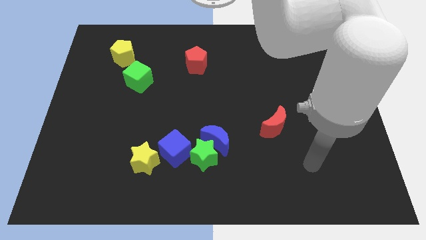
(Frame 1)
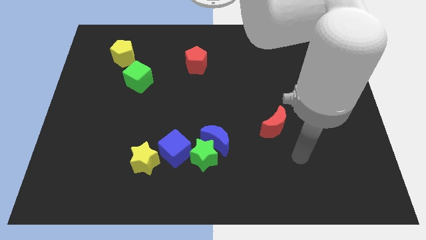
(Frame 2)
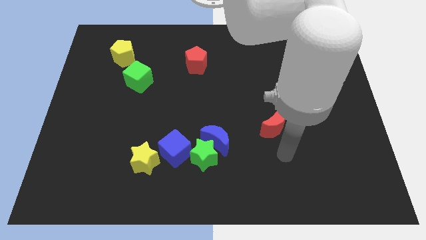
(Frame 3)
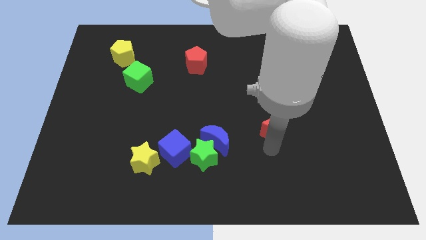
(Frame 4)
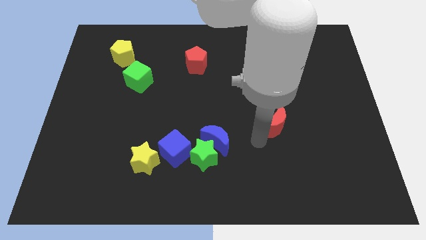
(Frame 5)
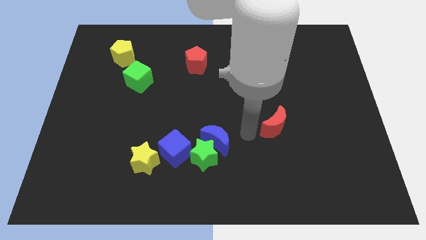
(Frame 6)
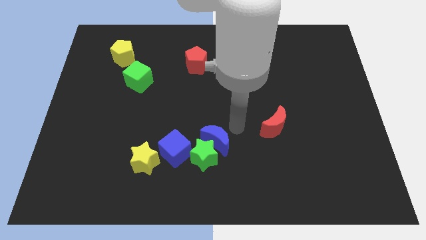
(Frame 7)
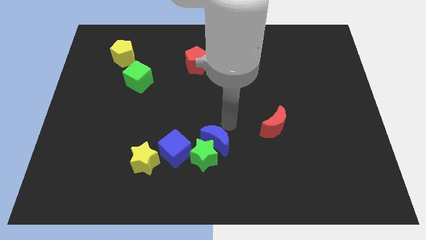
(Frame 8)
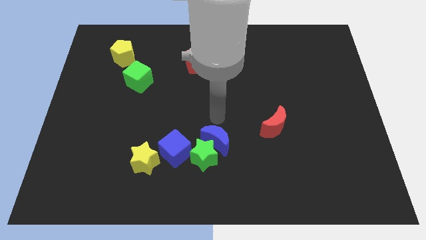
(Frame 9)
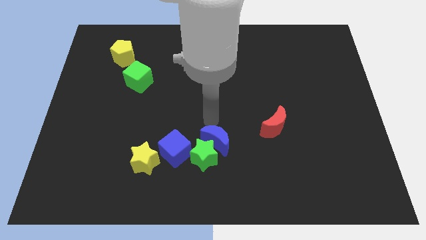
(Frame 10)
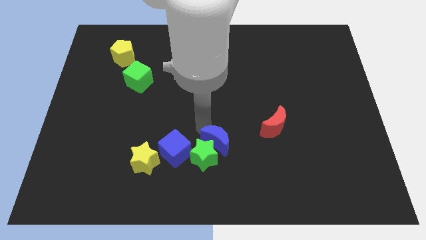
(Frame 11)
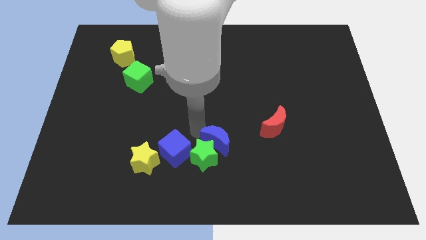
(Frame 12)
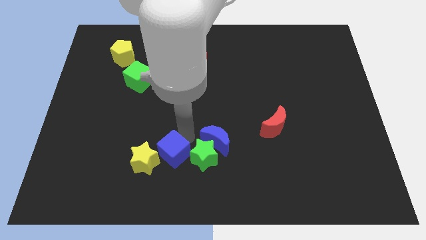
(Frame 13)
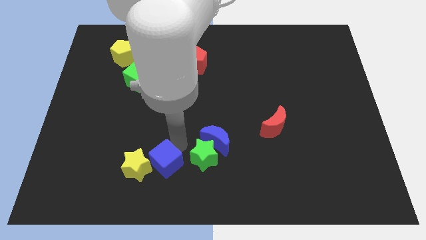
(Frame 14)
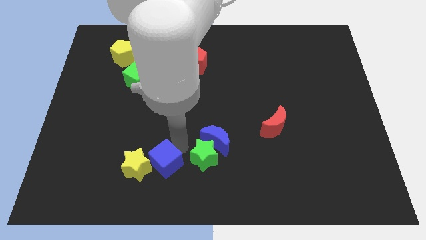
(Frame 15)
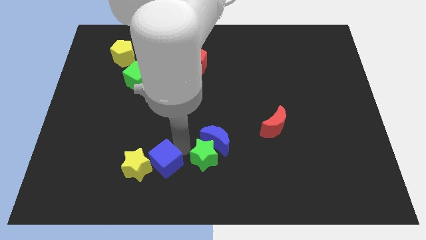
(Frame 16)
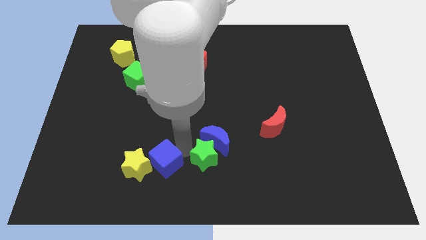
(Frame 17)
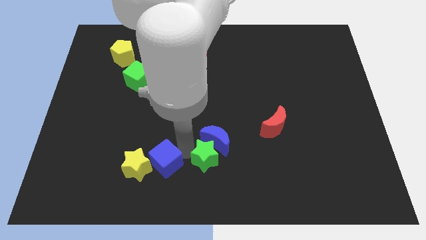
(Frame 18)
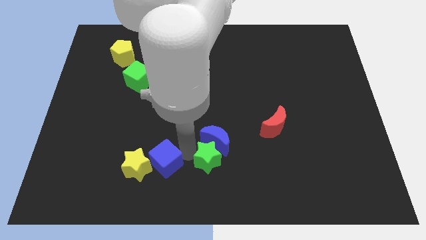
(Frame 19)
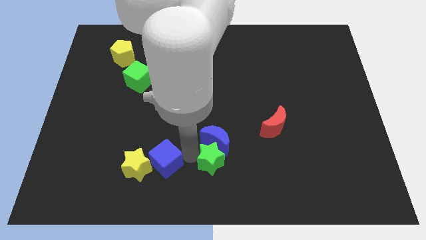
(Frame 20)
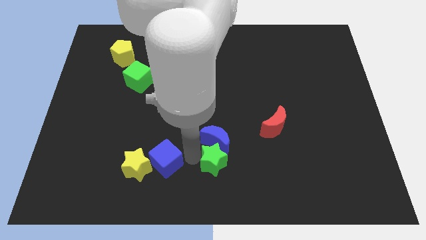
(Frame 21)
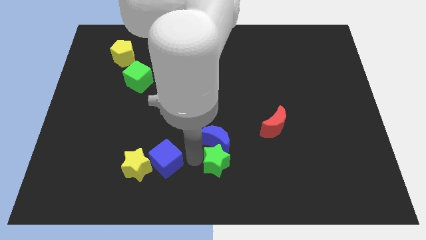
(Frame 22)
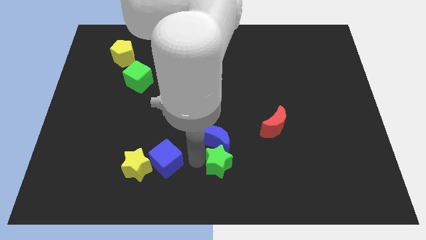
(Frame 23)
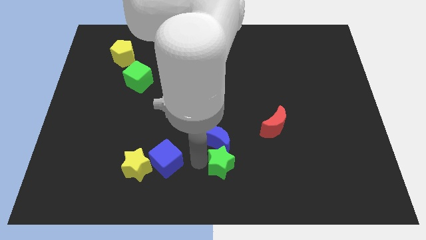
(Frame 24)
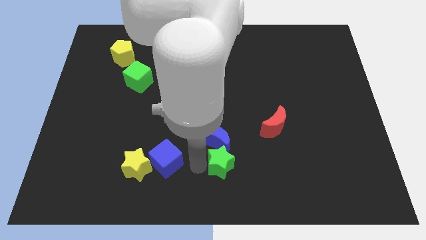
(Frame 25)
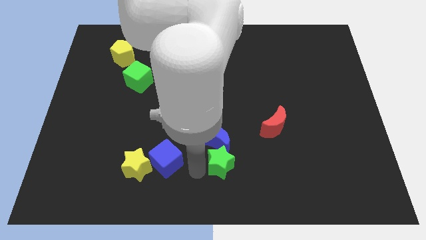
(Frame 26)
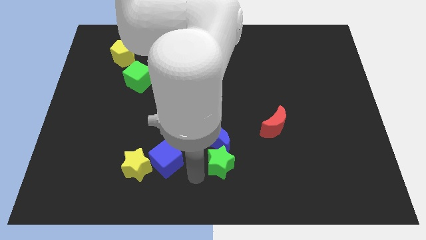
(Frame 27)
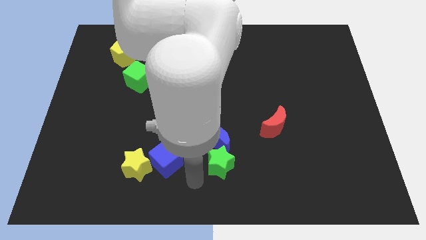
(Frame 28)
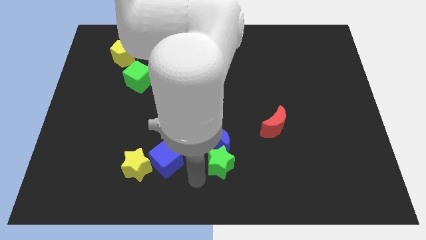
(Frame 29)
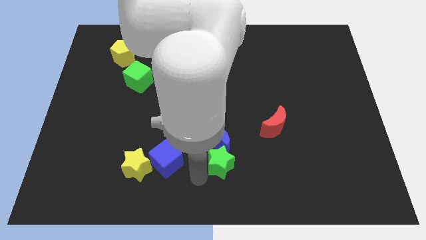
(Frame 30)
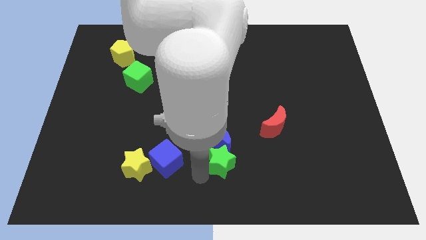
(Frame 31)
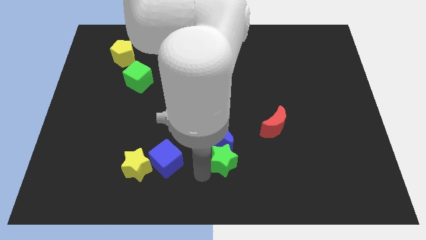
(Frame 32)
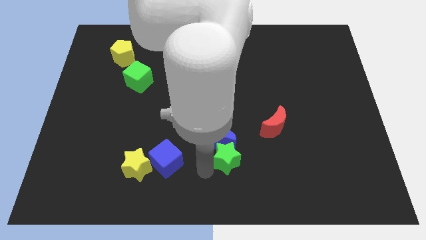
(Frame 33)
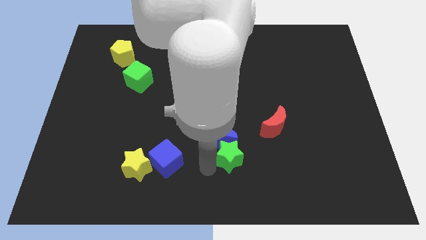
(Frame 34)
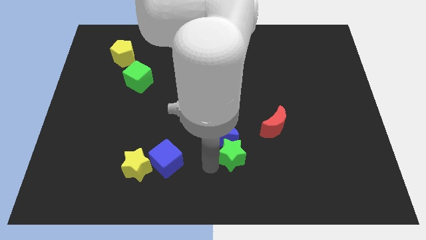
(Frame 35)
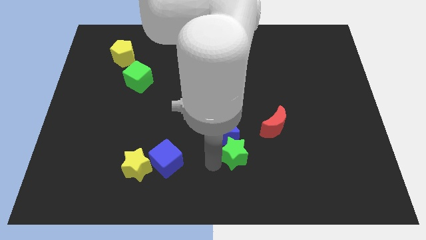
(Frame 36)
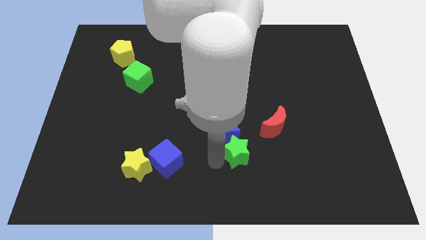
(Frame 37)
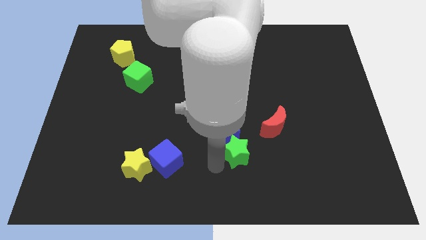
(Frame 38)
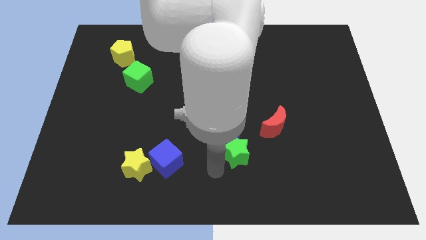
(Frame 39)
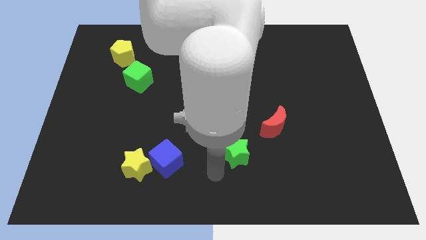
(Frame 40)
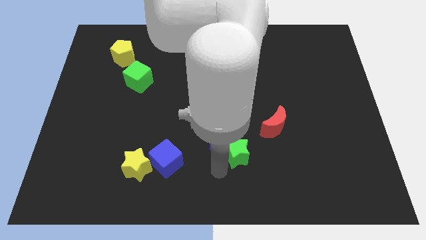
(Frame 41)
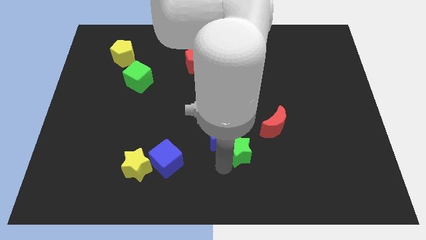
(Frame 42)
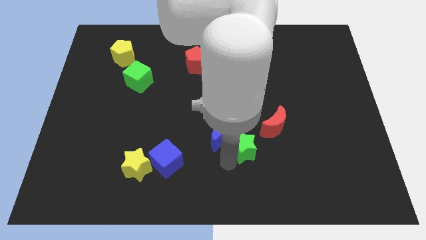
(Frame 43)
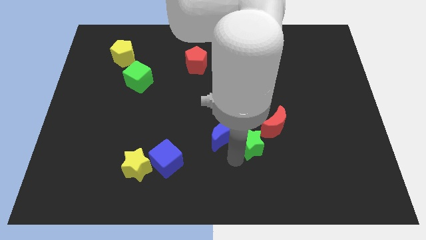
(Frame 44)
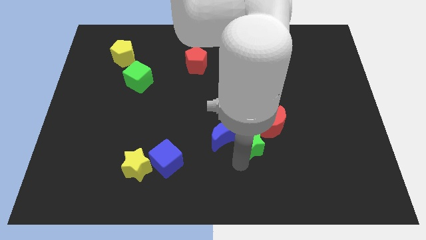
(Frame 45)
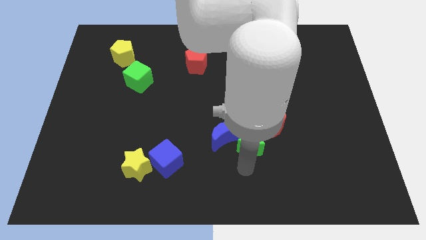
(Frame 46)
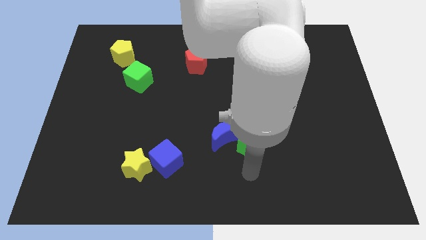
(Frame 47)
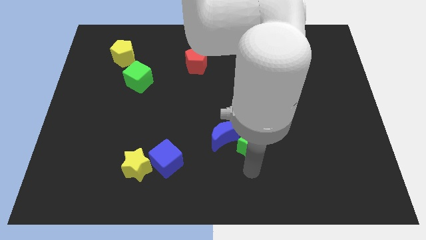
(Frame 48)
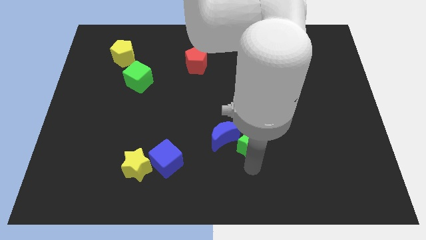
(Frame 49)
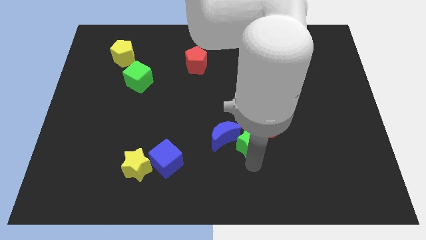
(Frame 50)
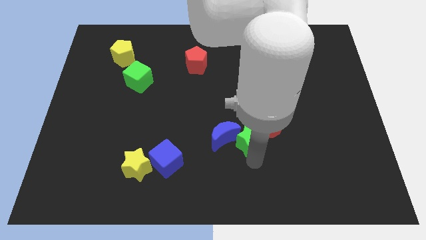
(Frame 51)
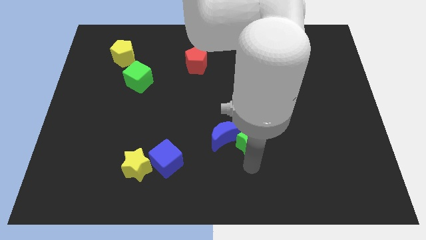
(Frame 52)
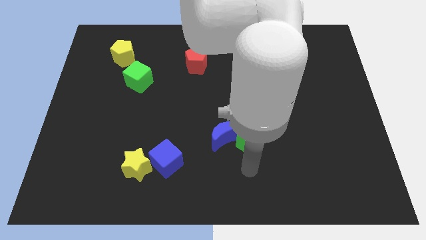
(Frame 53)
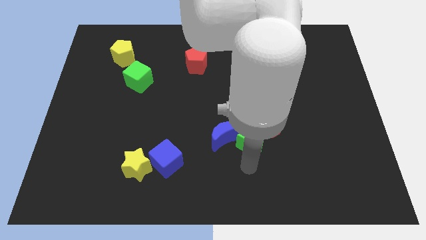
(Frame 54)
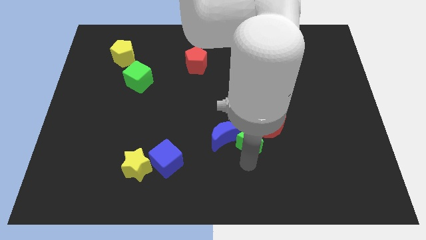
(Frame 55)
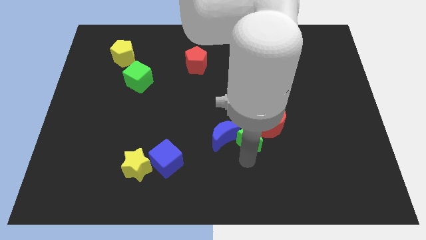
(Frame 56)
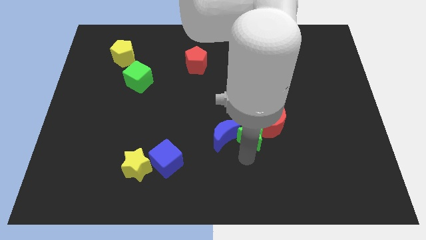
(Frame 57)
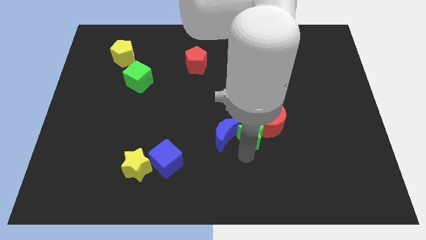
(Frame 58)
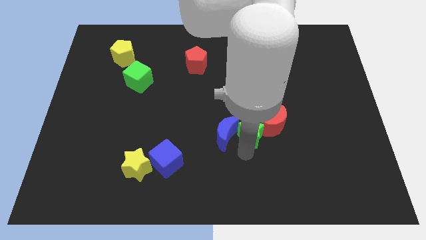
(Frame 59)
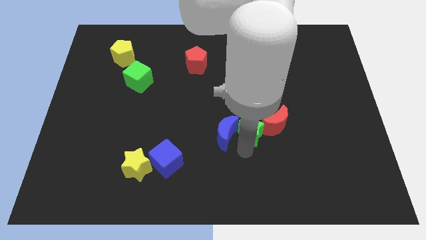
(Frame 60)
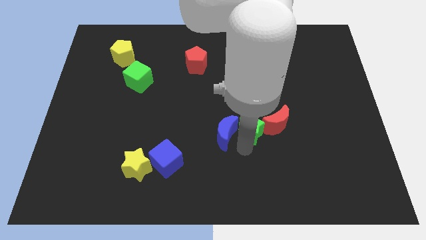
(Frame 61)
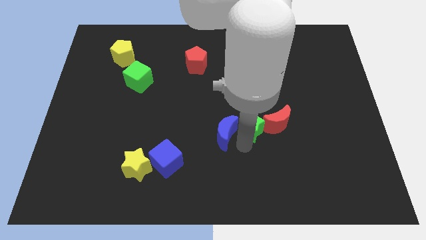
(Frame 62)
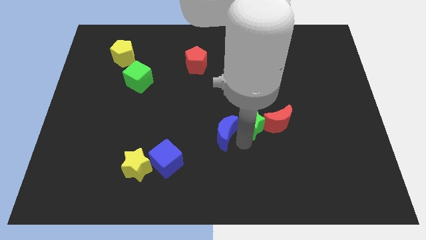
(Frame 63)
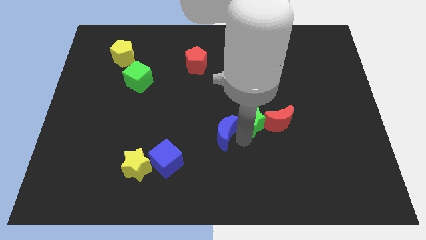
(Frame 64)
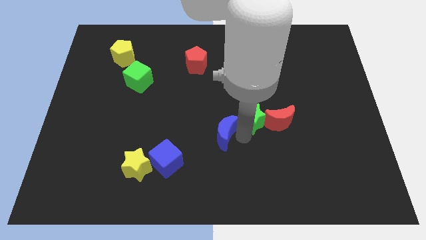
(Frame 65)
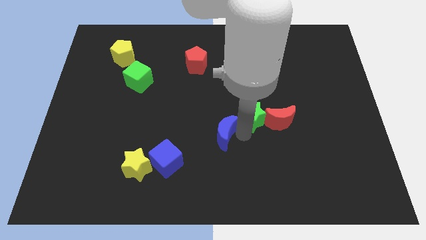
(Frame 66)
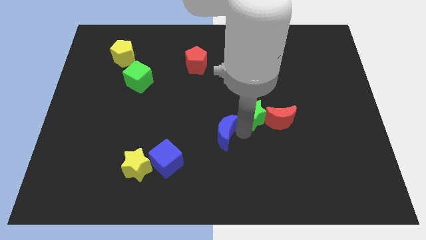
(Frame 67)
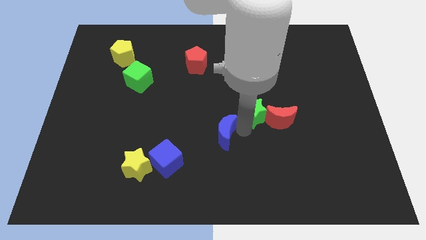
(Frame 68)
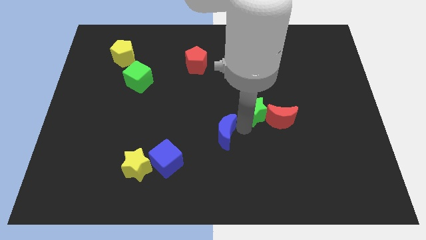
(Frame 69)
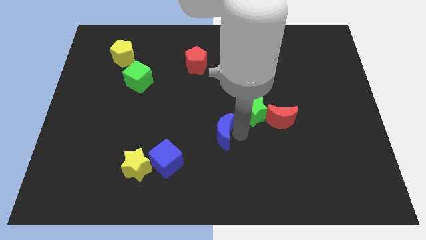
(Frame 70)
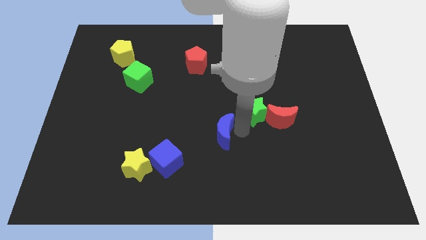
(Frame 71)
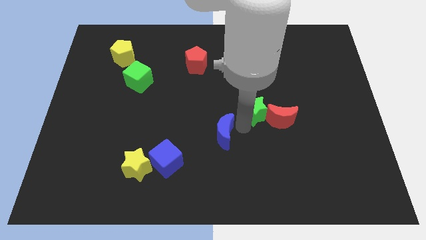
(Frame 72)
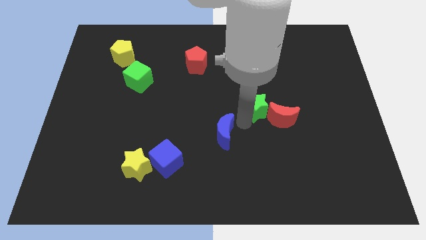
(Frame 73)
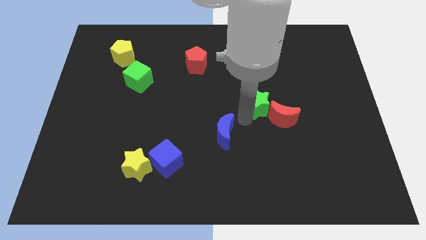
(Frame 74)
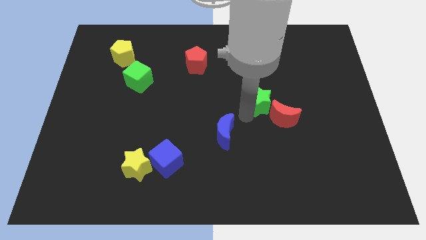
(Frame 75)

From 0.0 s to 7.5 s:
put the green star to the top side of the red moon

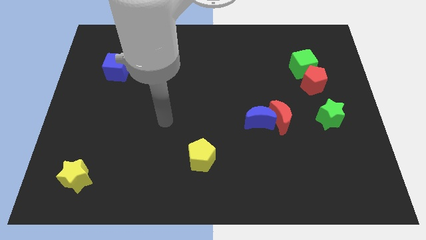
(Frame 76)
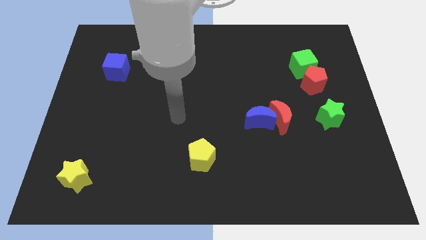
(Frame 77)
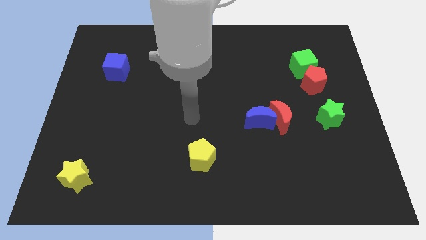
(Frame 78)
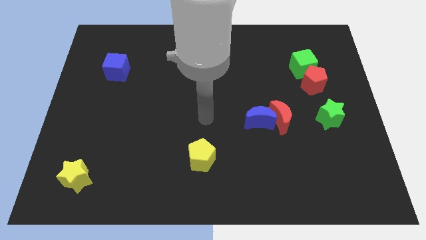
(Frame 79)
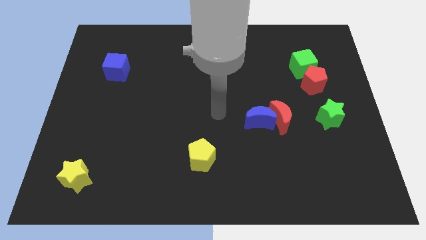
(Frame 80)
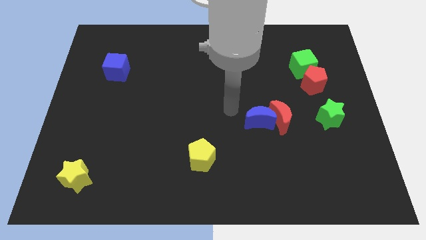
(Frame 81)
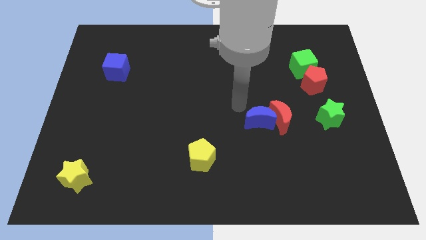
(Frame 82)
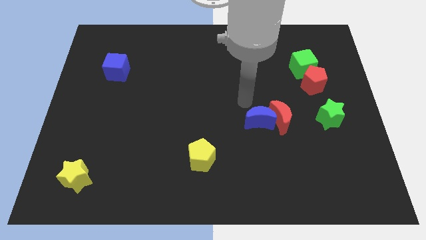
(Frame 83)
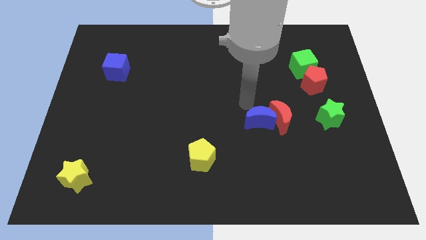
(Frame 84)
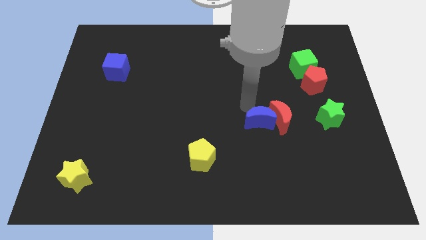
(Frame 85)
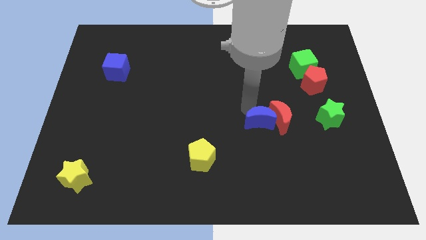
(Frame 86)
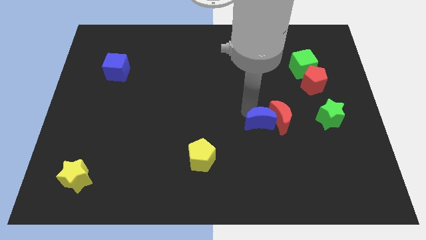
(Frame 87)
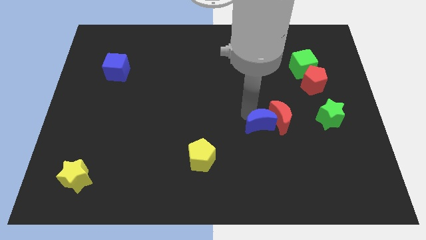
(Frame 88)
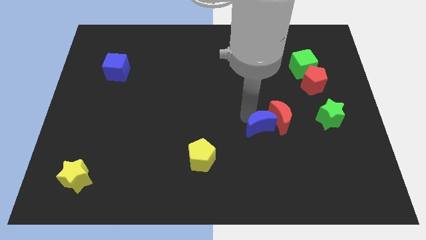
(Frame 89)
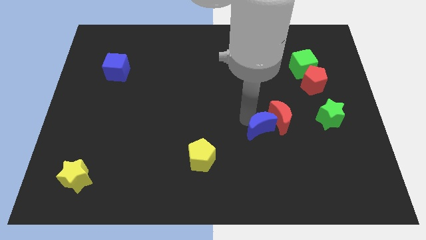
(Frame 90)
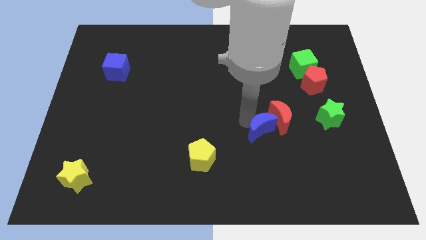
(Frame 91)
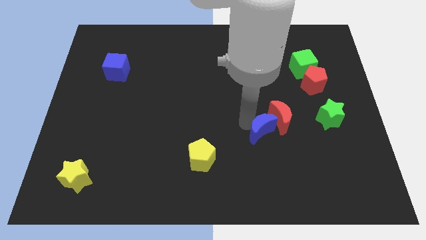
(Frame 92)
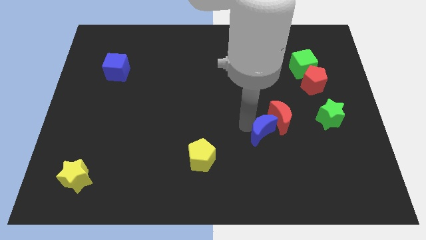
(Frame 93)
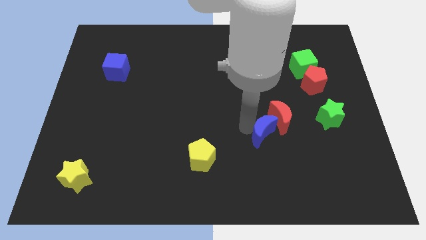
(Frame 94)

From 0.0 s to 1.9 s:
move the blue moon to the bottom of the red moon
